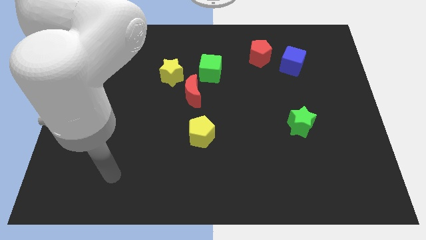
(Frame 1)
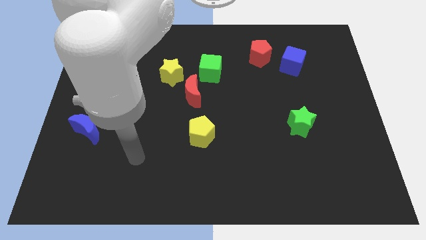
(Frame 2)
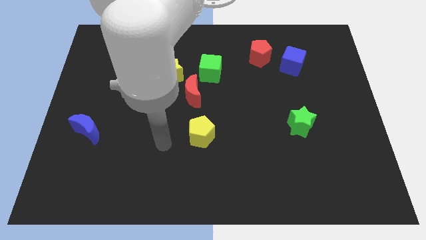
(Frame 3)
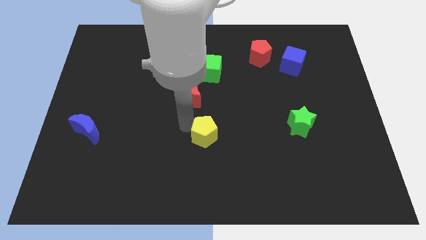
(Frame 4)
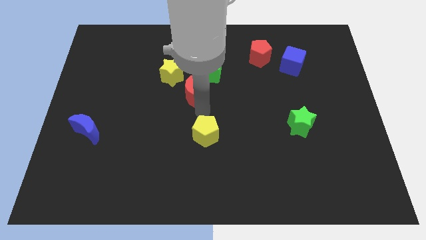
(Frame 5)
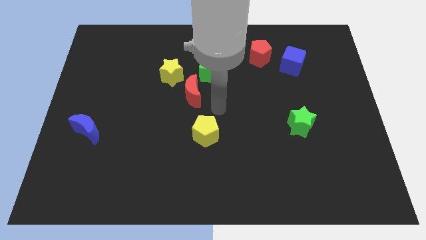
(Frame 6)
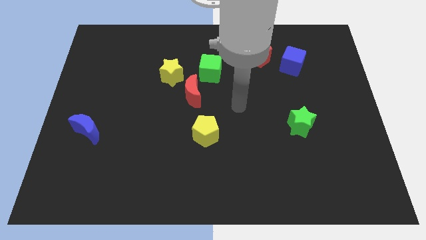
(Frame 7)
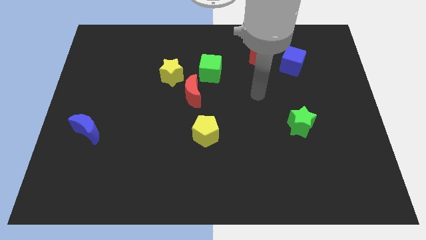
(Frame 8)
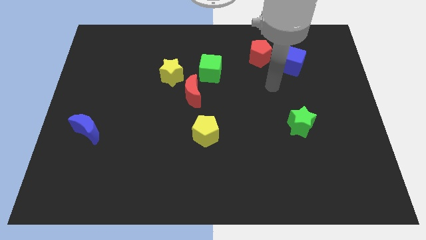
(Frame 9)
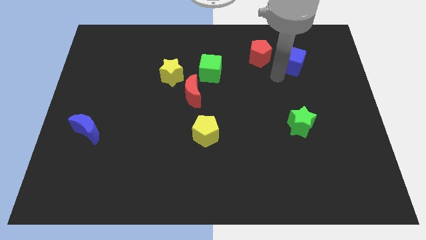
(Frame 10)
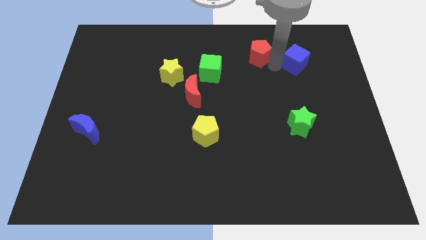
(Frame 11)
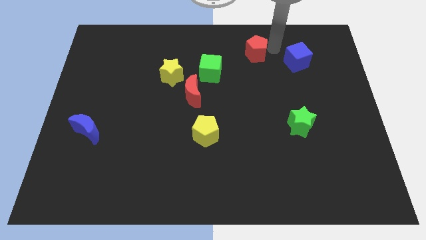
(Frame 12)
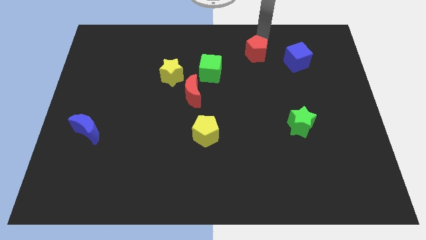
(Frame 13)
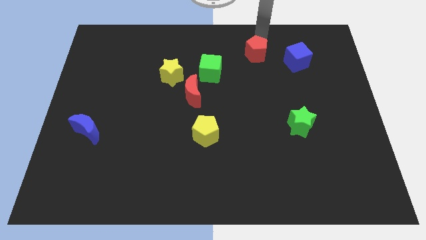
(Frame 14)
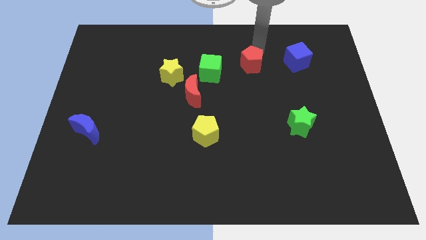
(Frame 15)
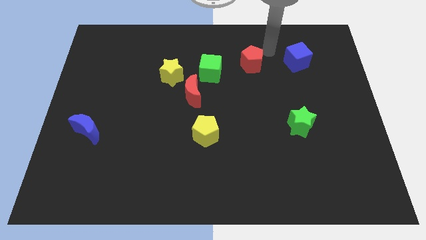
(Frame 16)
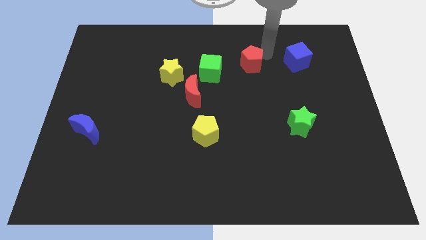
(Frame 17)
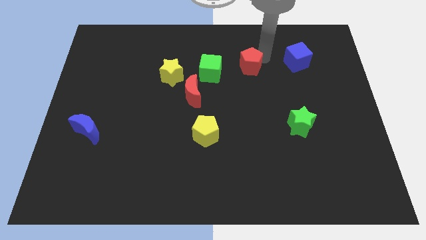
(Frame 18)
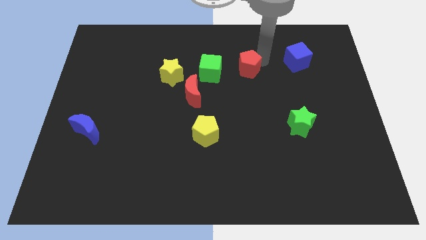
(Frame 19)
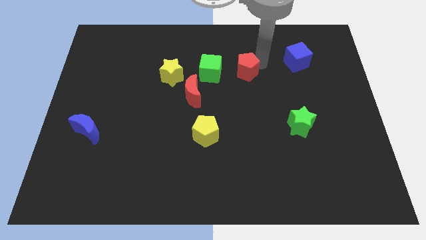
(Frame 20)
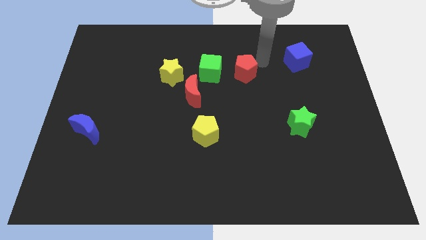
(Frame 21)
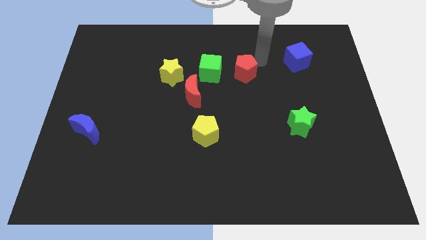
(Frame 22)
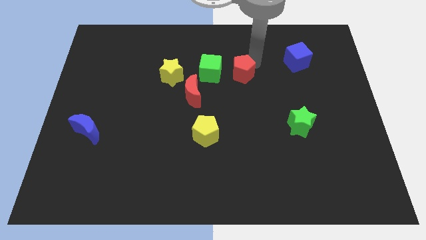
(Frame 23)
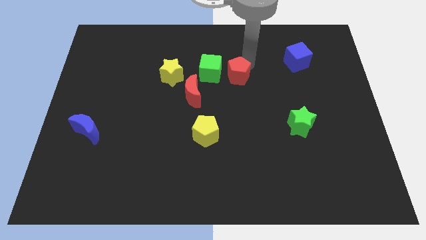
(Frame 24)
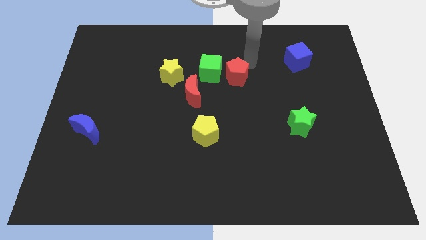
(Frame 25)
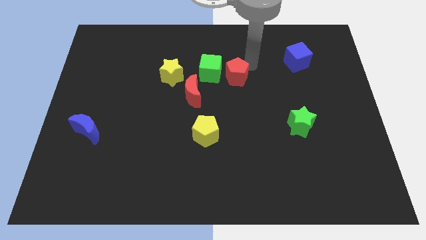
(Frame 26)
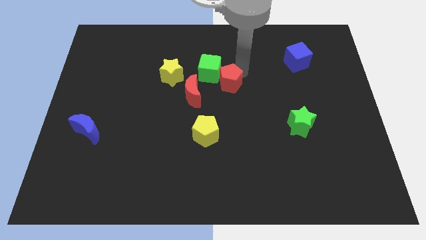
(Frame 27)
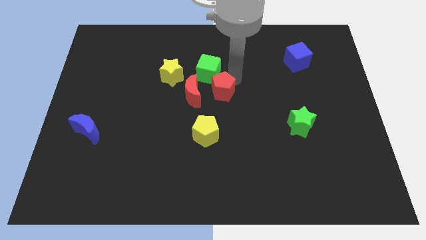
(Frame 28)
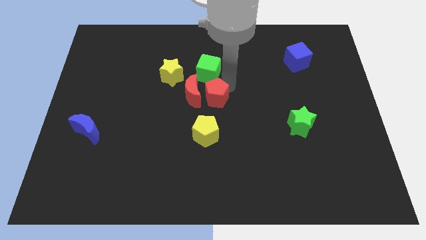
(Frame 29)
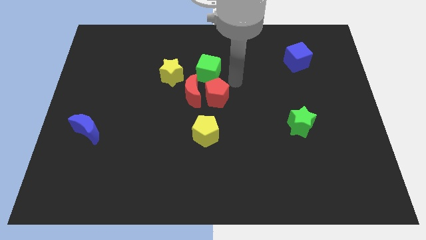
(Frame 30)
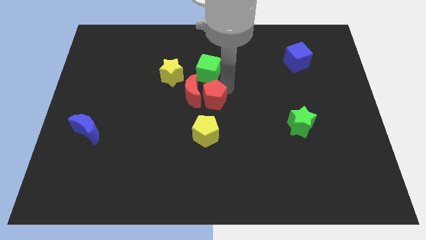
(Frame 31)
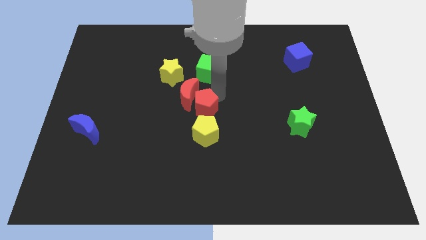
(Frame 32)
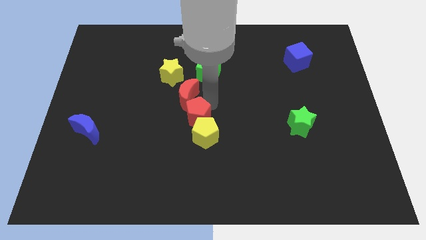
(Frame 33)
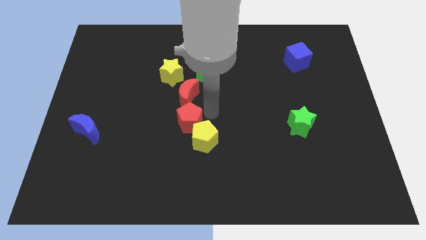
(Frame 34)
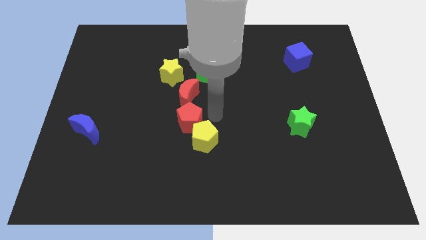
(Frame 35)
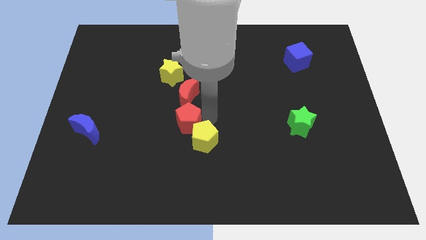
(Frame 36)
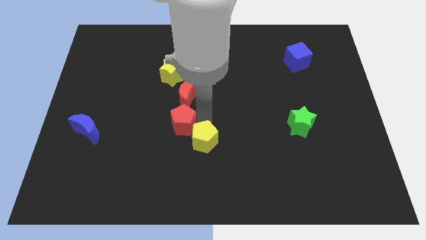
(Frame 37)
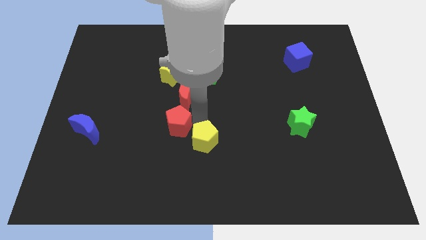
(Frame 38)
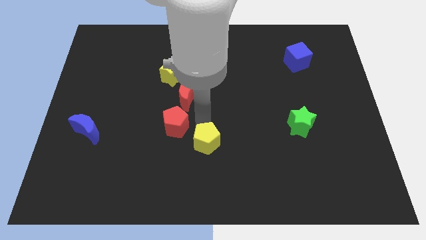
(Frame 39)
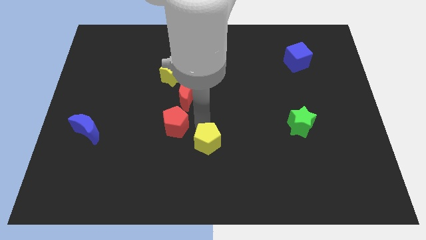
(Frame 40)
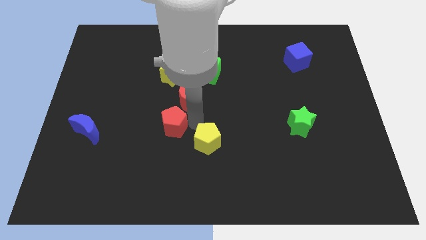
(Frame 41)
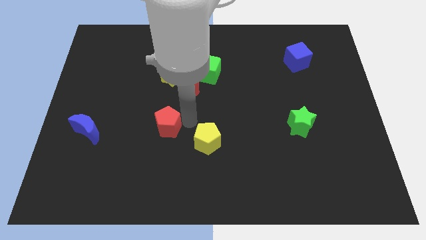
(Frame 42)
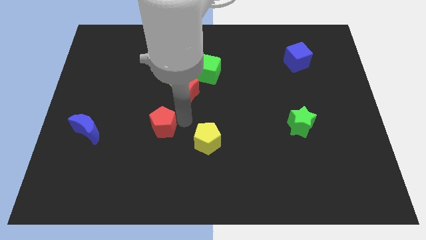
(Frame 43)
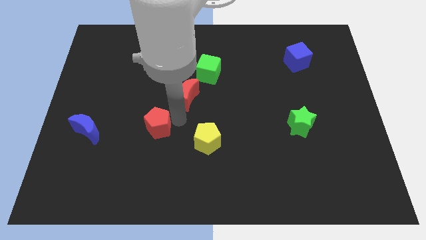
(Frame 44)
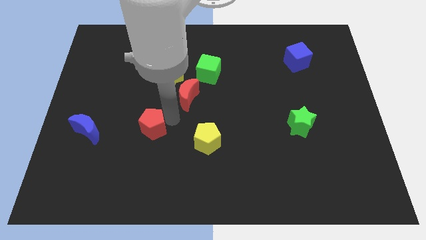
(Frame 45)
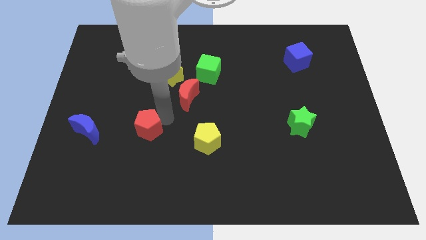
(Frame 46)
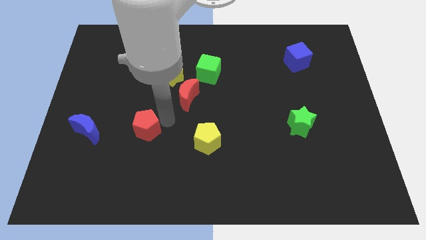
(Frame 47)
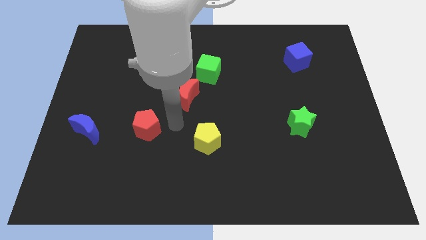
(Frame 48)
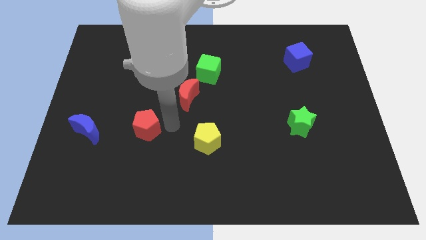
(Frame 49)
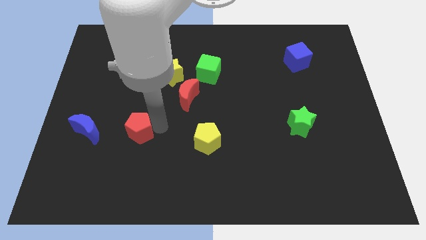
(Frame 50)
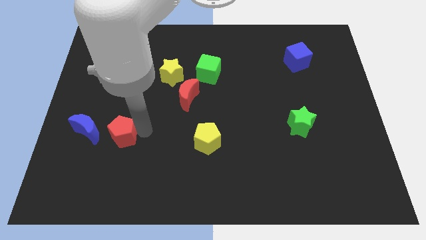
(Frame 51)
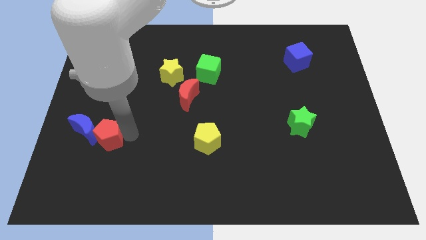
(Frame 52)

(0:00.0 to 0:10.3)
slide the red pentagon close to the blue moon

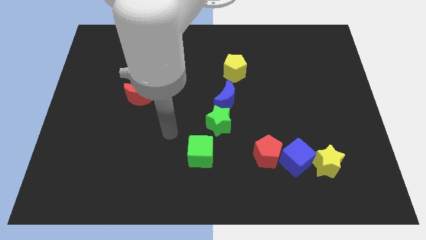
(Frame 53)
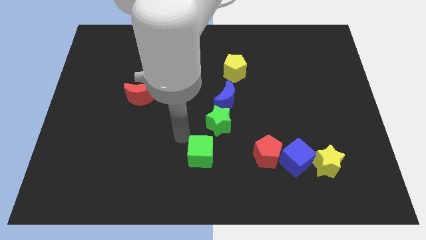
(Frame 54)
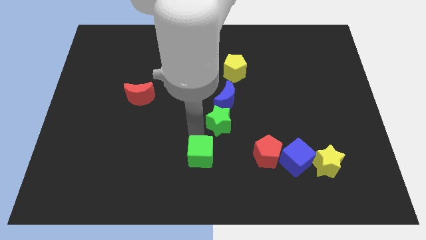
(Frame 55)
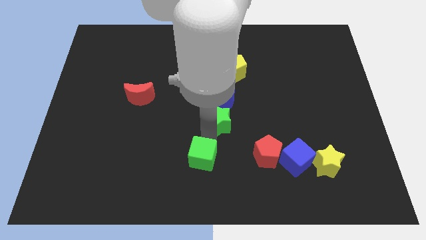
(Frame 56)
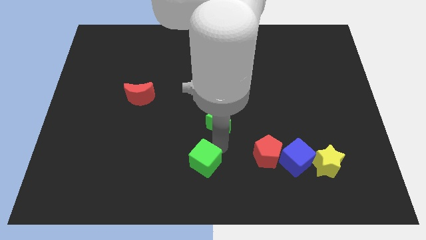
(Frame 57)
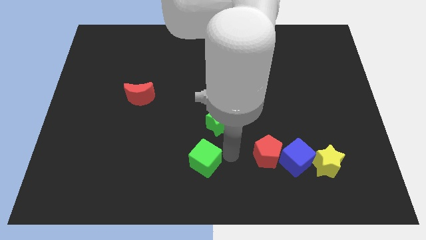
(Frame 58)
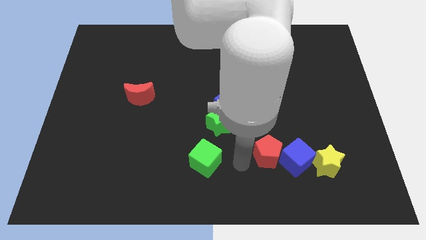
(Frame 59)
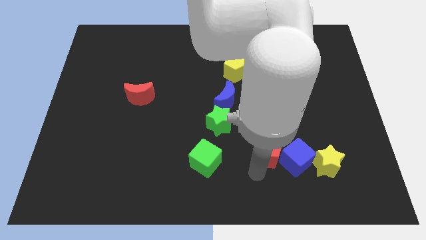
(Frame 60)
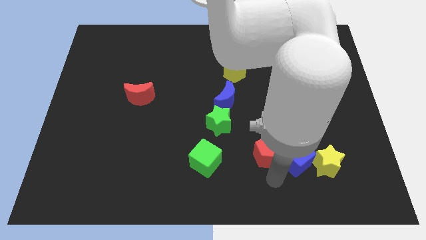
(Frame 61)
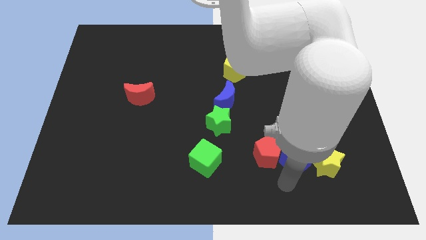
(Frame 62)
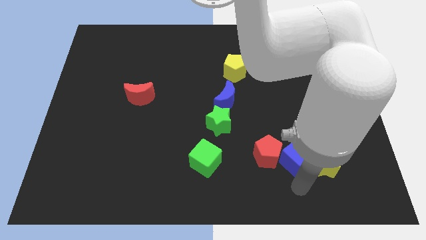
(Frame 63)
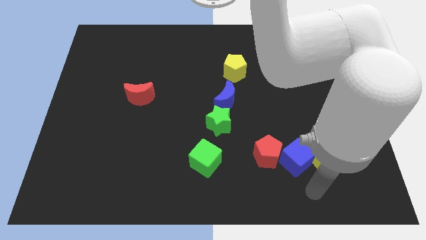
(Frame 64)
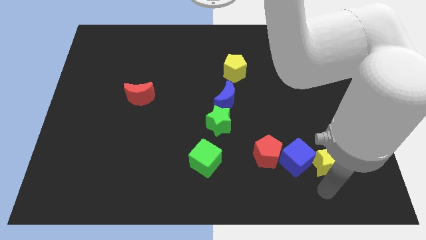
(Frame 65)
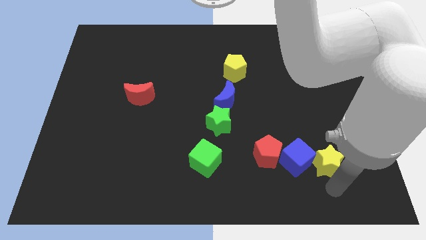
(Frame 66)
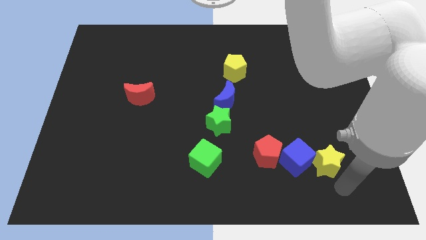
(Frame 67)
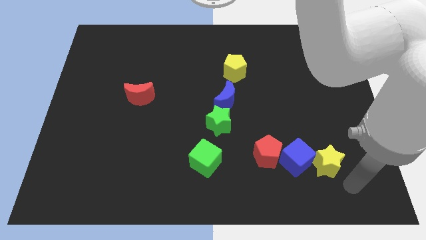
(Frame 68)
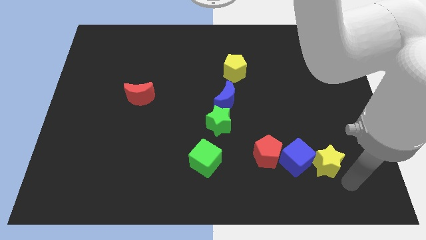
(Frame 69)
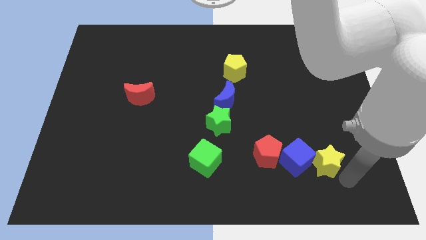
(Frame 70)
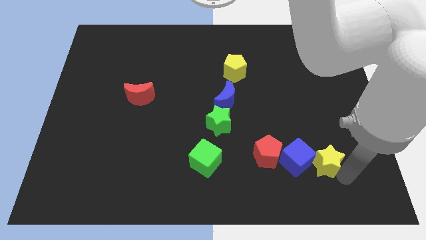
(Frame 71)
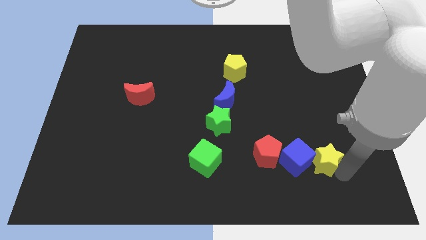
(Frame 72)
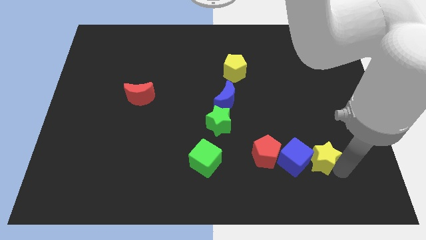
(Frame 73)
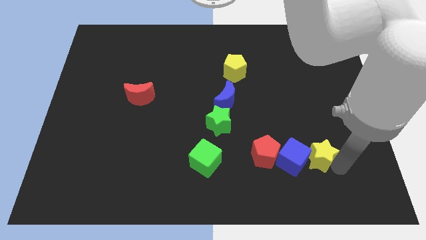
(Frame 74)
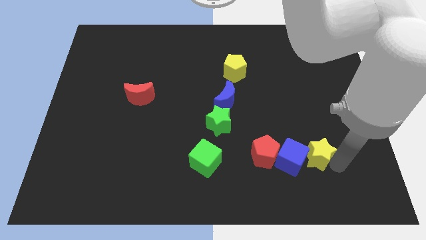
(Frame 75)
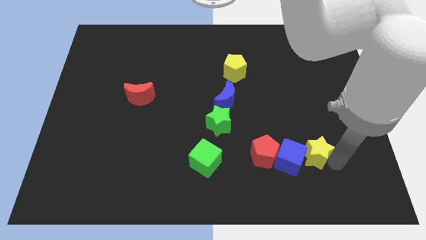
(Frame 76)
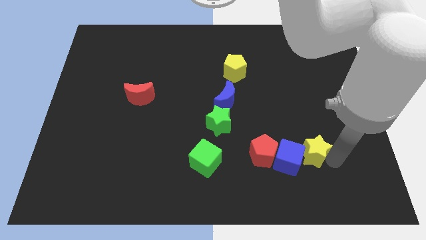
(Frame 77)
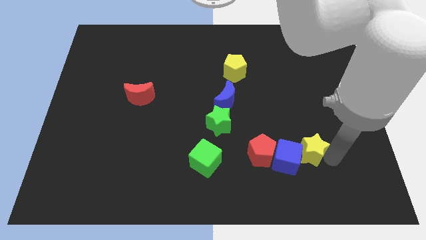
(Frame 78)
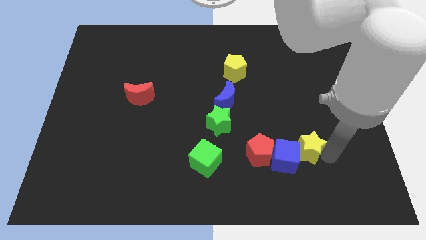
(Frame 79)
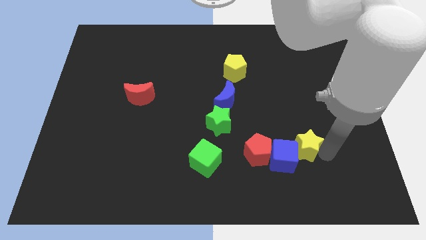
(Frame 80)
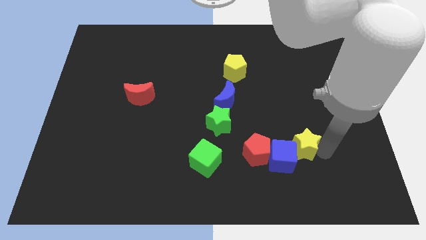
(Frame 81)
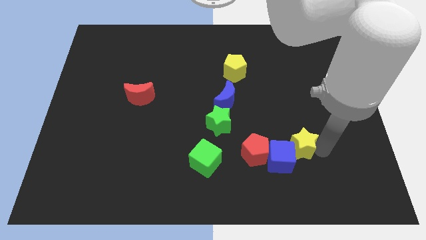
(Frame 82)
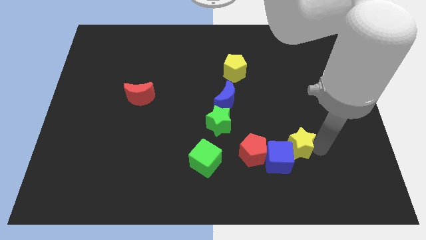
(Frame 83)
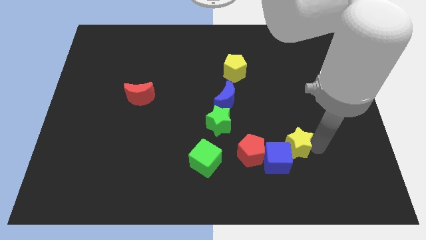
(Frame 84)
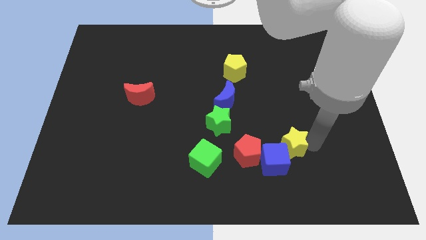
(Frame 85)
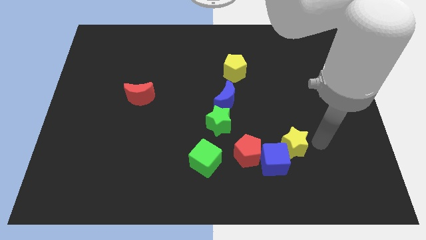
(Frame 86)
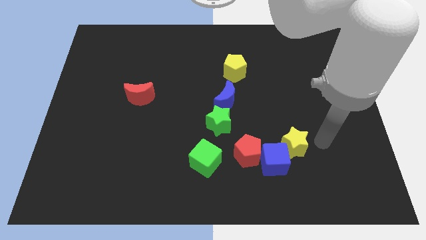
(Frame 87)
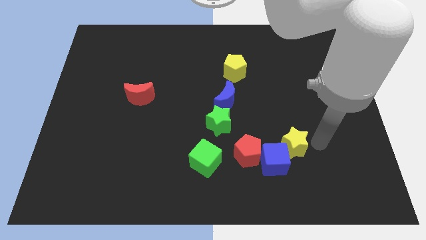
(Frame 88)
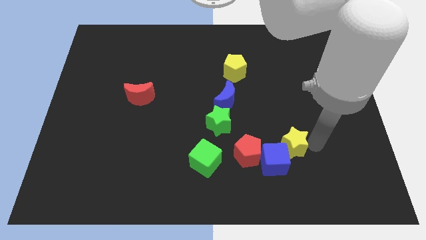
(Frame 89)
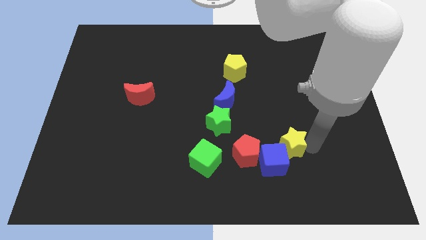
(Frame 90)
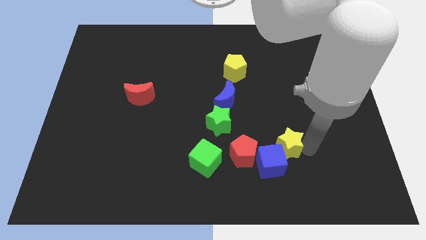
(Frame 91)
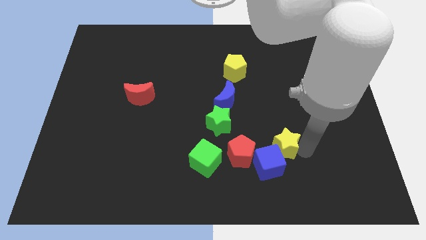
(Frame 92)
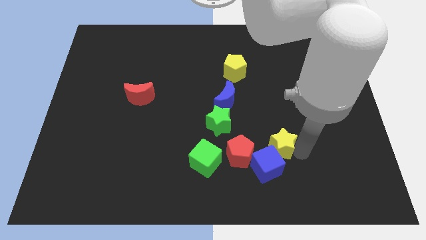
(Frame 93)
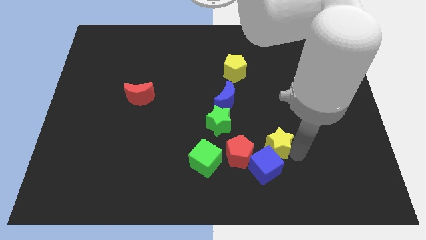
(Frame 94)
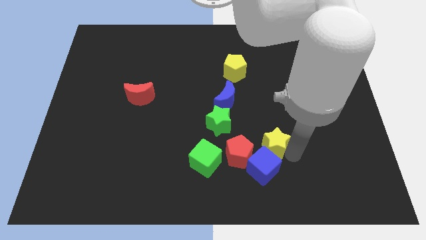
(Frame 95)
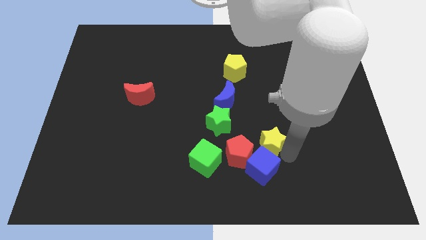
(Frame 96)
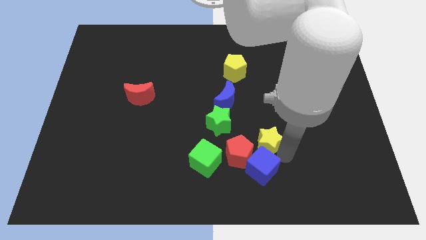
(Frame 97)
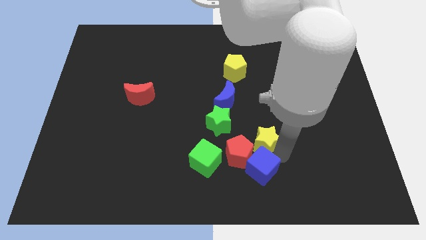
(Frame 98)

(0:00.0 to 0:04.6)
put the yellow star to the red pentagon
